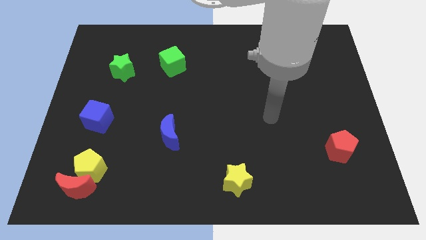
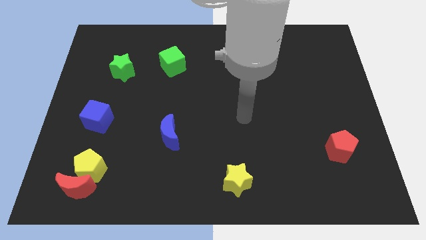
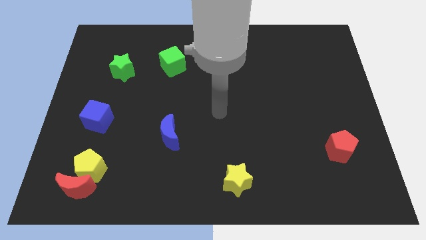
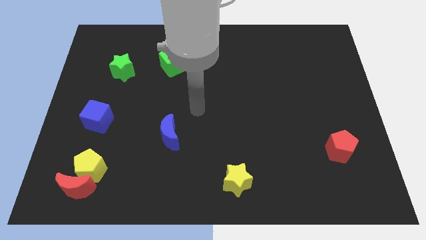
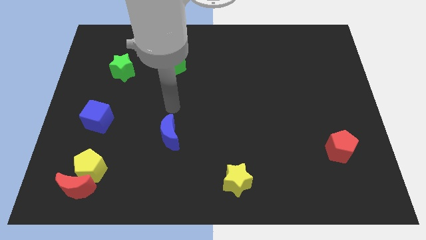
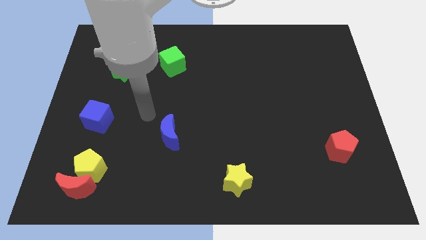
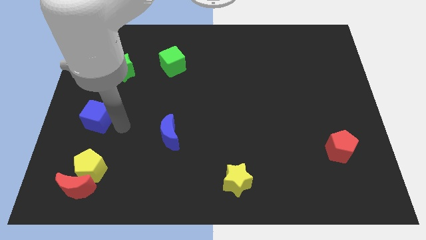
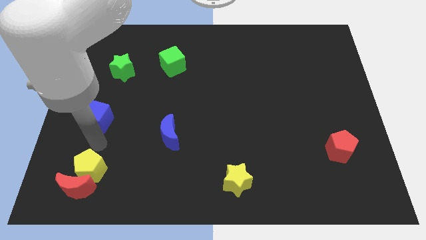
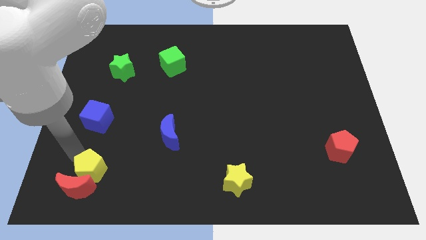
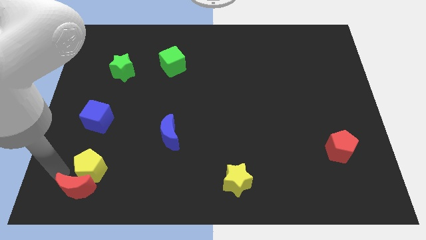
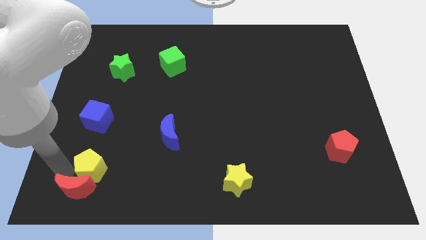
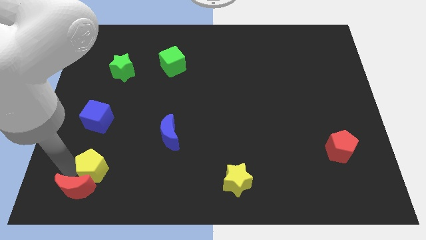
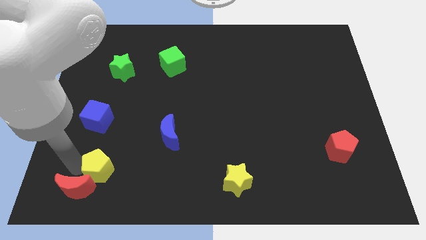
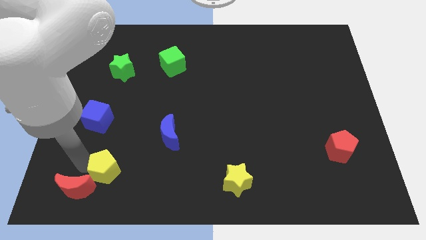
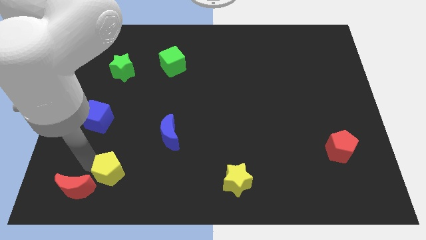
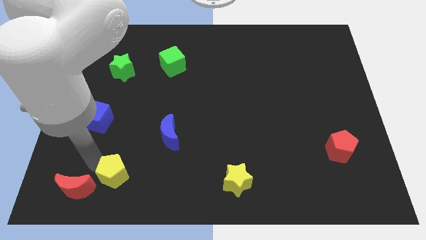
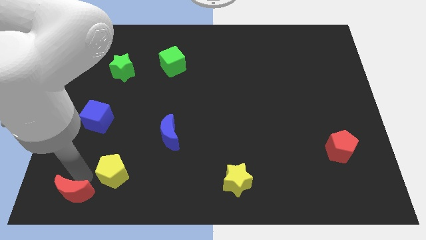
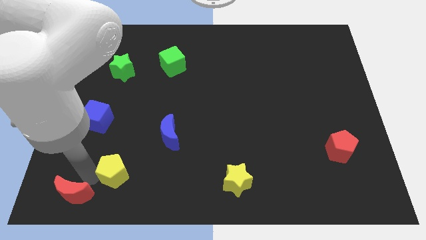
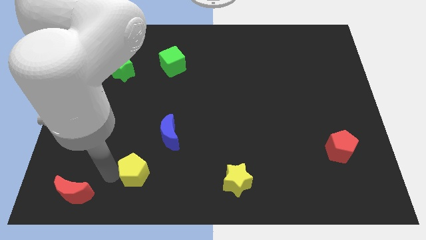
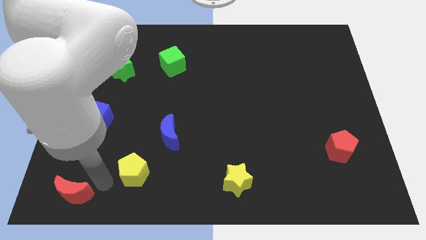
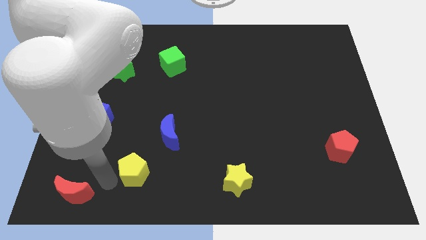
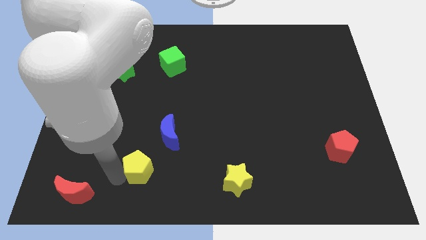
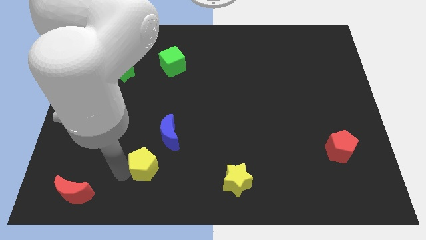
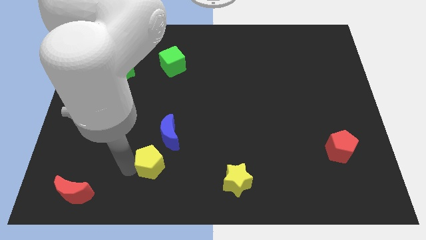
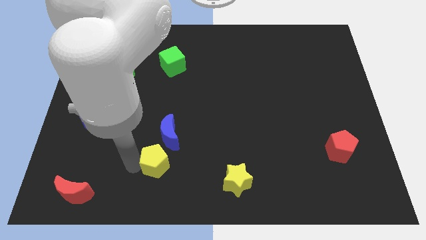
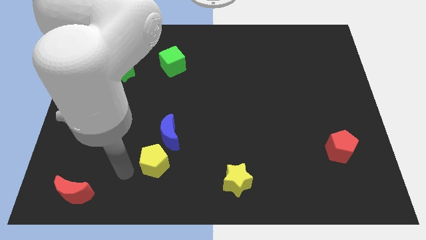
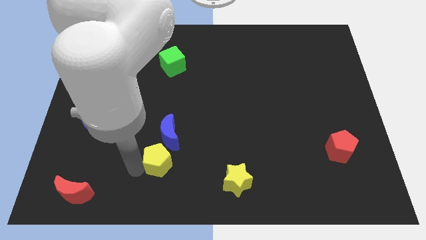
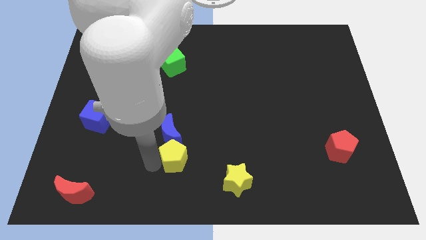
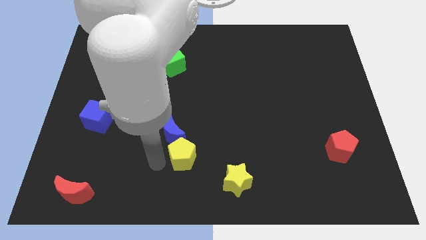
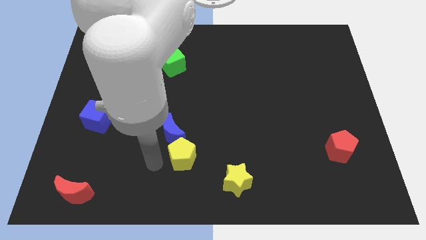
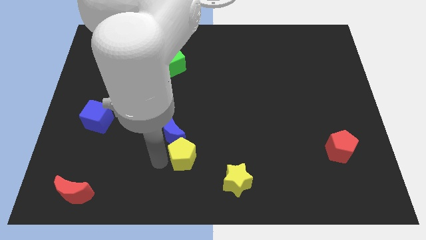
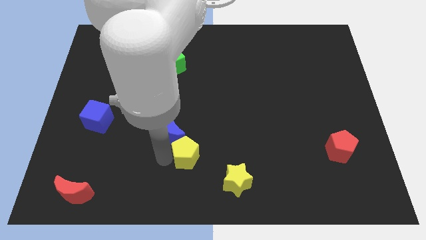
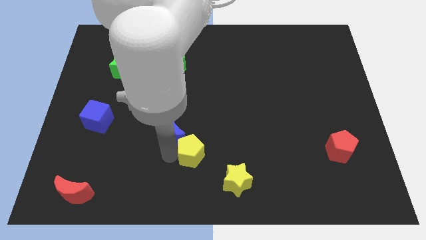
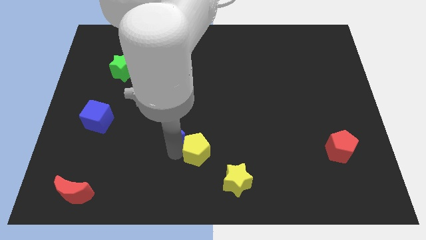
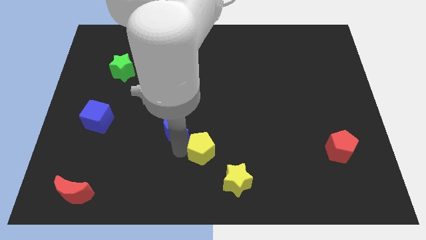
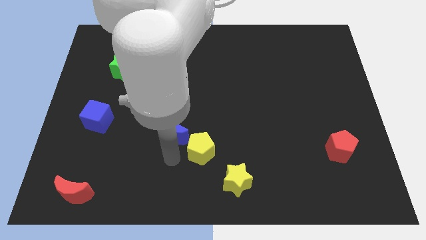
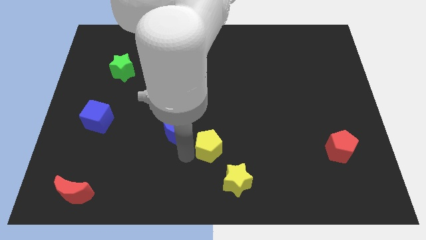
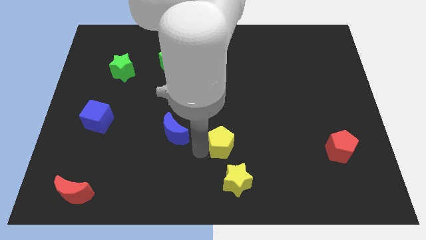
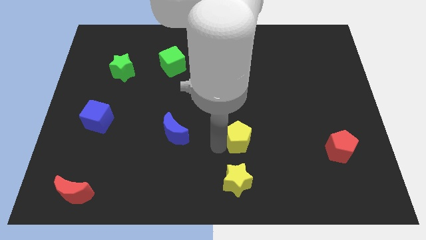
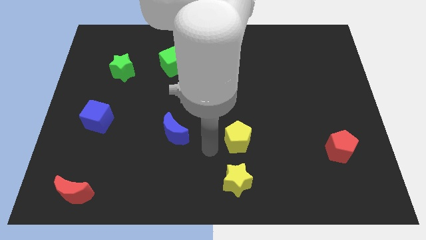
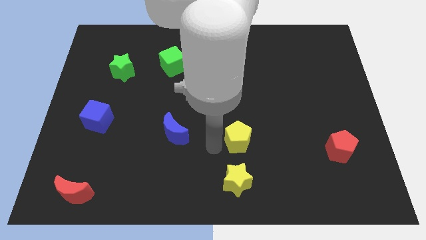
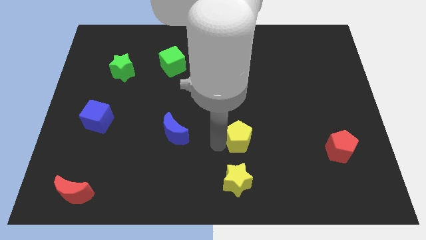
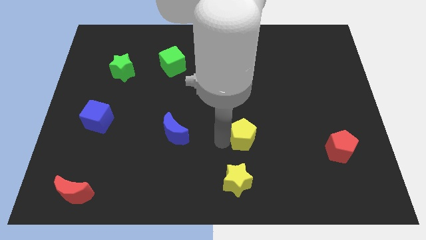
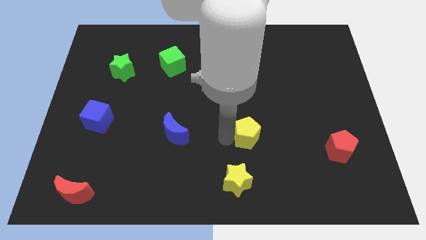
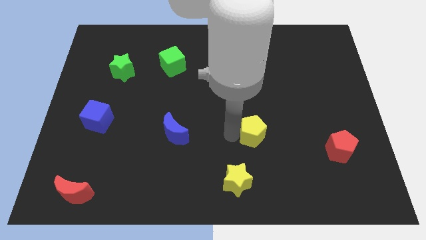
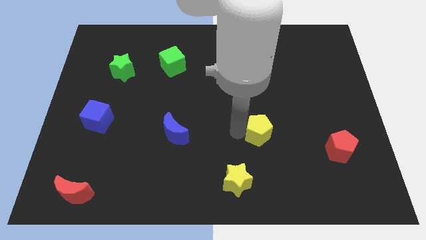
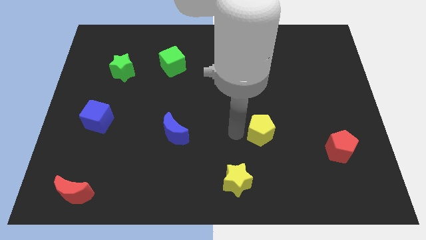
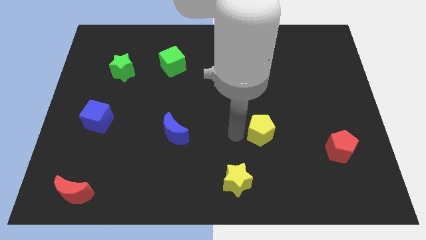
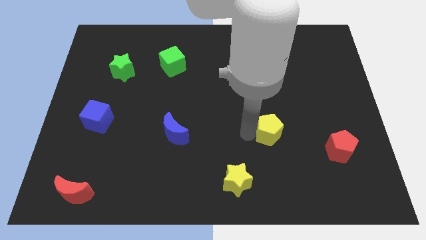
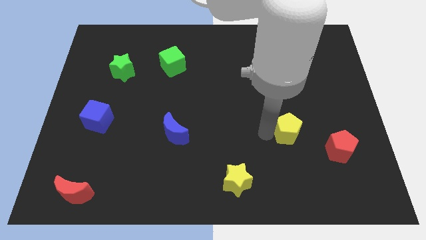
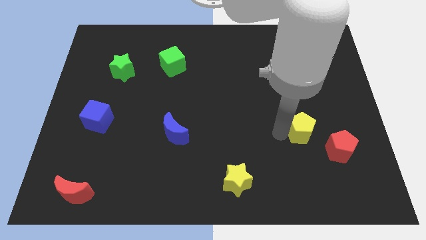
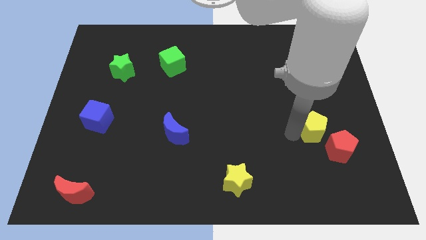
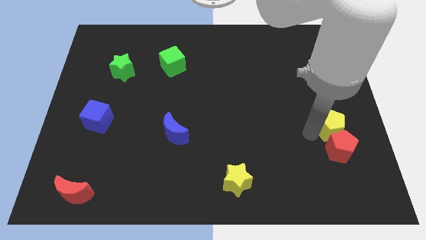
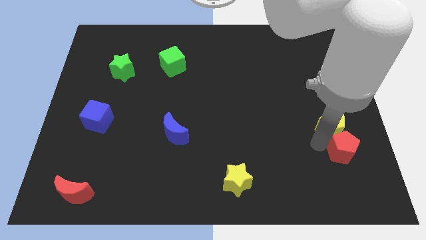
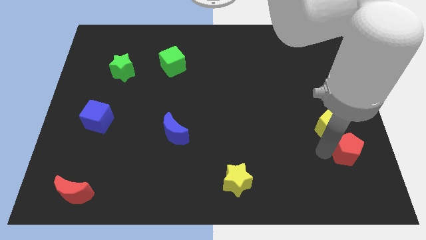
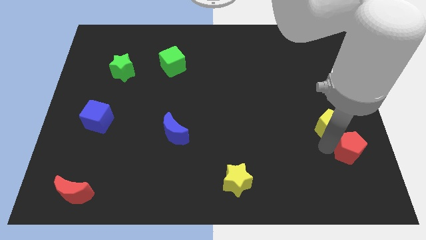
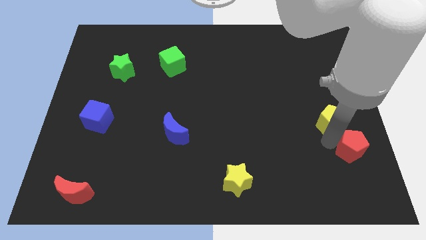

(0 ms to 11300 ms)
move the yellow pentagon to the right side of the board
